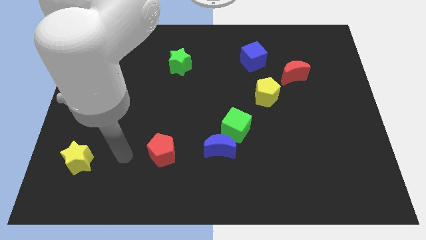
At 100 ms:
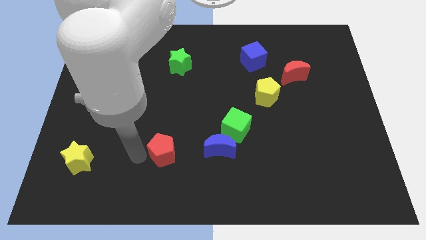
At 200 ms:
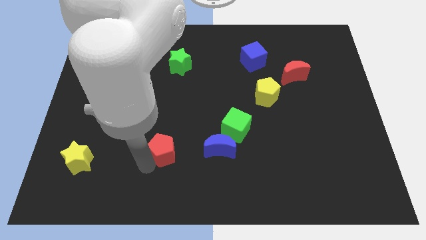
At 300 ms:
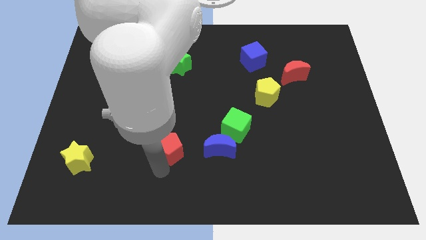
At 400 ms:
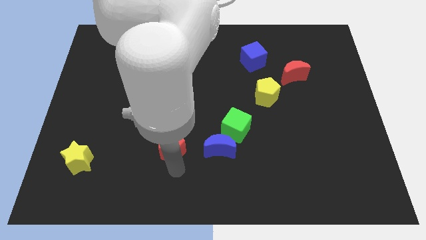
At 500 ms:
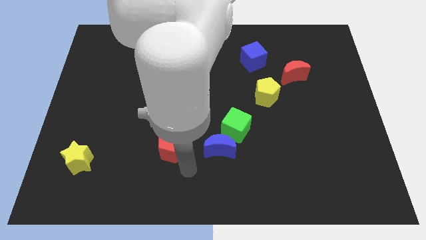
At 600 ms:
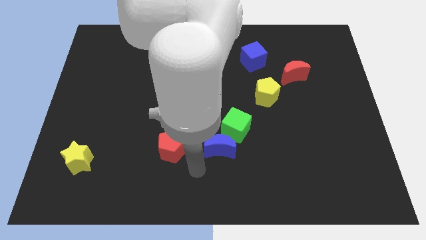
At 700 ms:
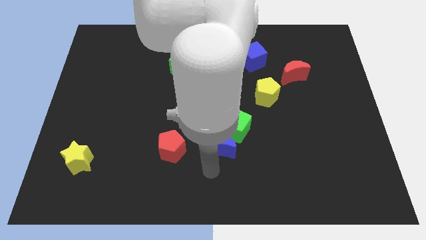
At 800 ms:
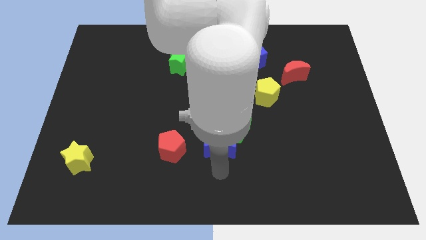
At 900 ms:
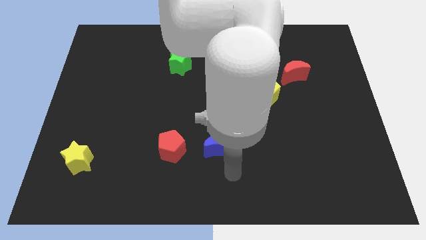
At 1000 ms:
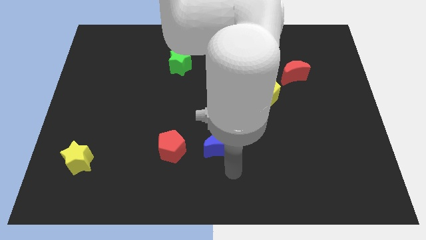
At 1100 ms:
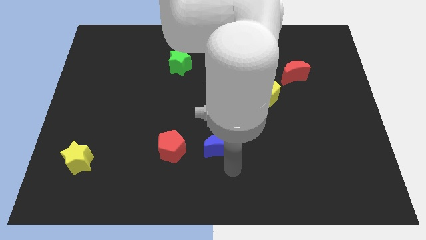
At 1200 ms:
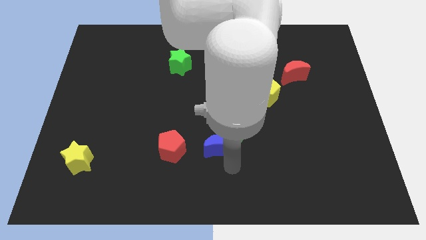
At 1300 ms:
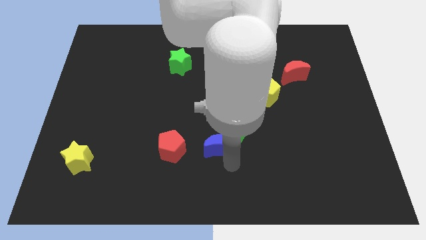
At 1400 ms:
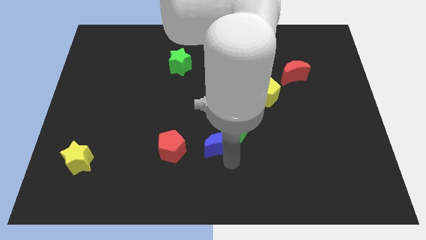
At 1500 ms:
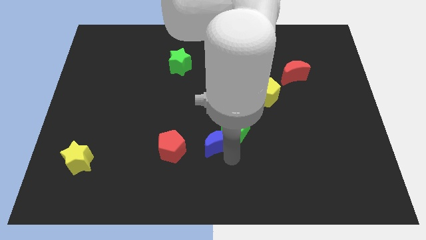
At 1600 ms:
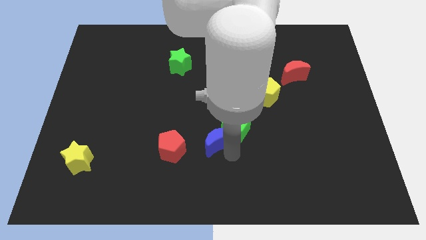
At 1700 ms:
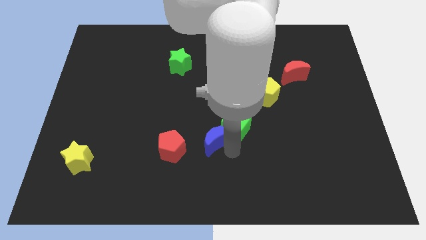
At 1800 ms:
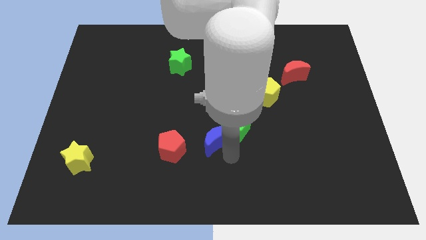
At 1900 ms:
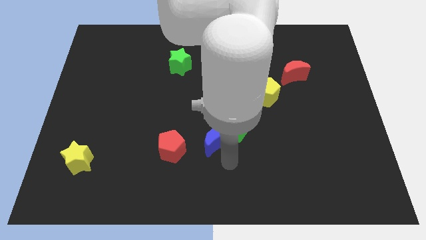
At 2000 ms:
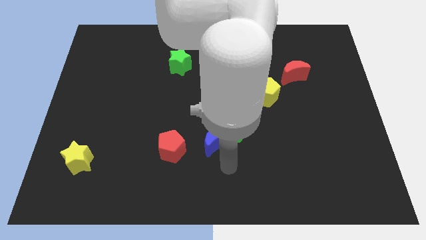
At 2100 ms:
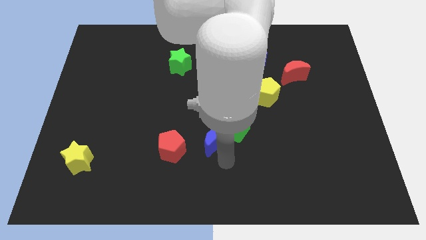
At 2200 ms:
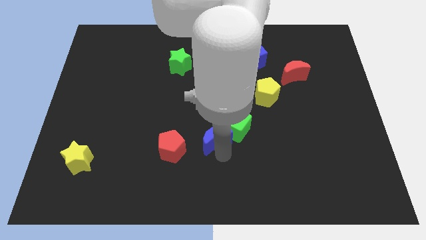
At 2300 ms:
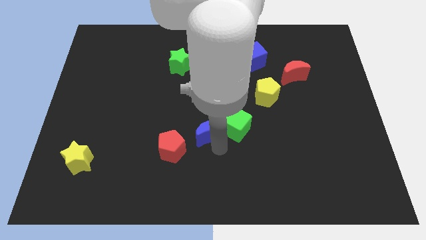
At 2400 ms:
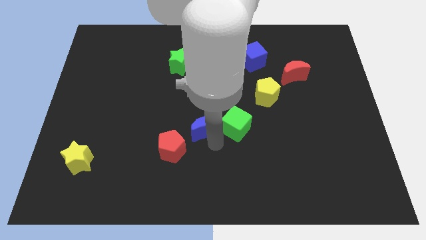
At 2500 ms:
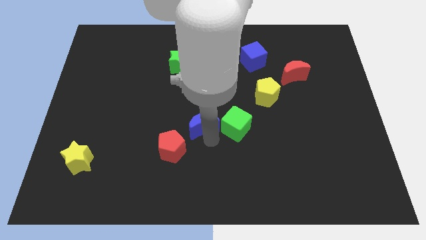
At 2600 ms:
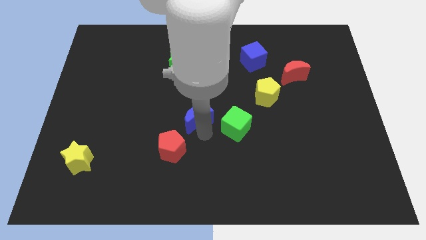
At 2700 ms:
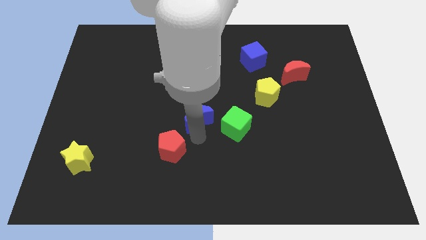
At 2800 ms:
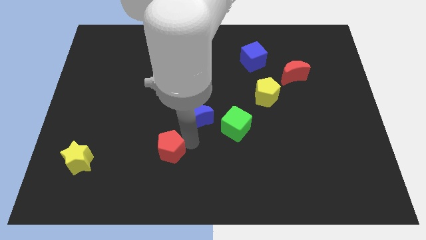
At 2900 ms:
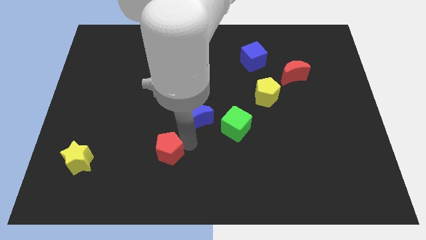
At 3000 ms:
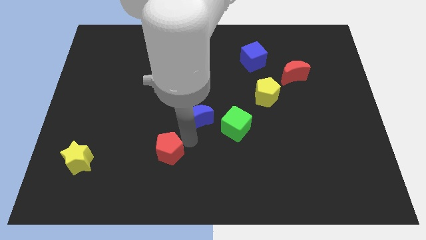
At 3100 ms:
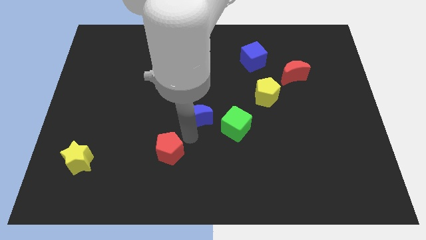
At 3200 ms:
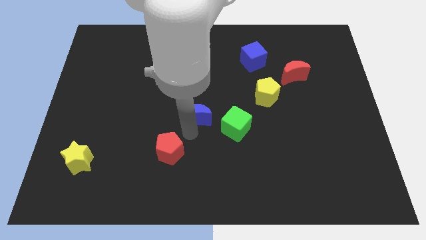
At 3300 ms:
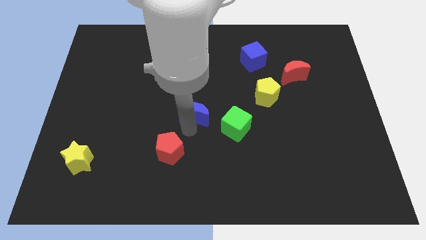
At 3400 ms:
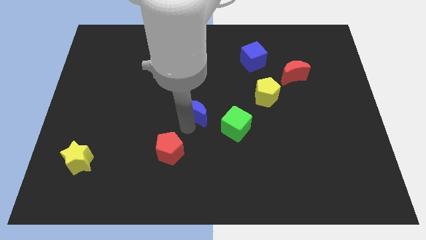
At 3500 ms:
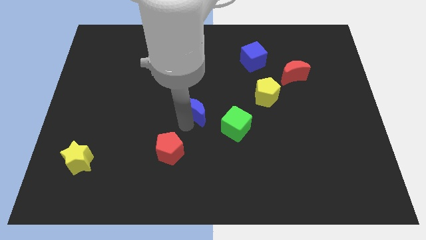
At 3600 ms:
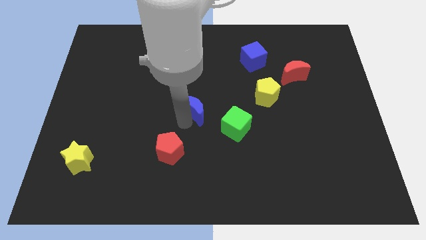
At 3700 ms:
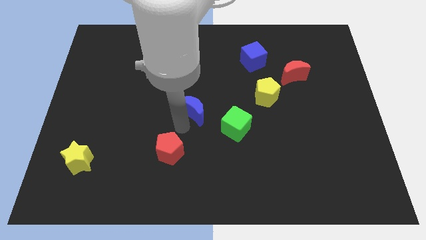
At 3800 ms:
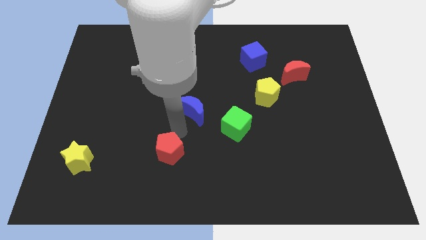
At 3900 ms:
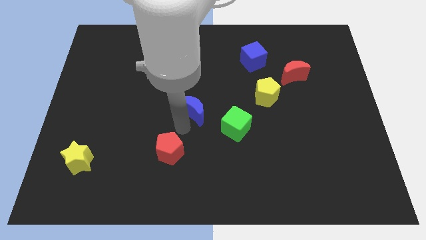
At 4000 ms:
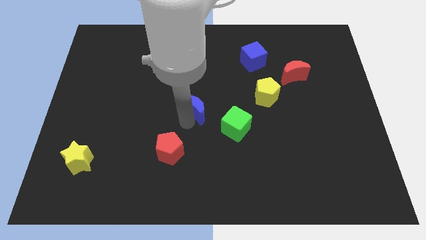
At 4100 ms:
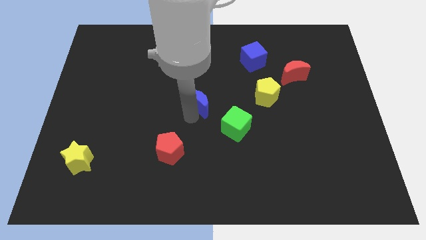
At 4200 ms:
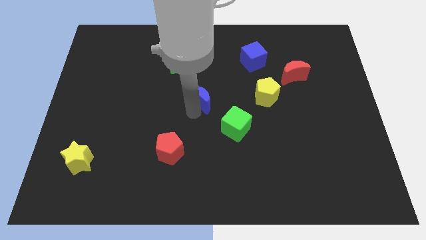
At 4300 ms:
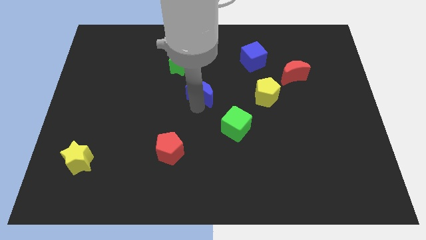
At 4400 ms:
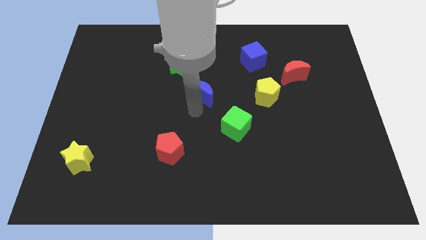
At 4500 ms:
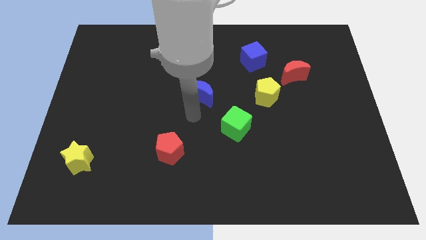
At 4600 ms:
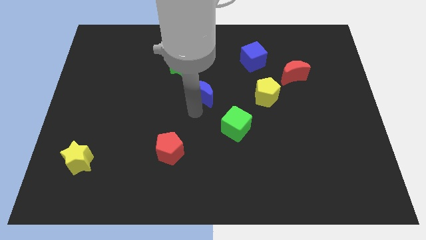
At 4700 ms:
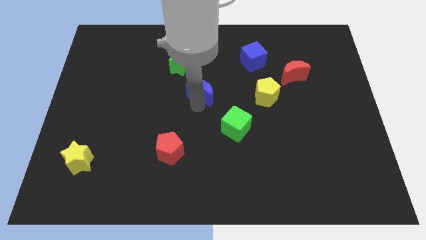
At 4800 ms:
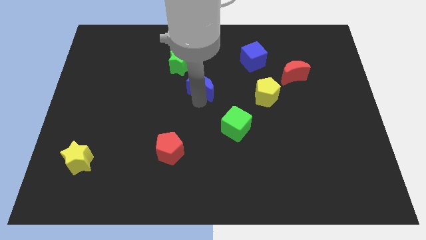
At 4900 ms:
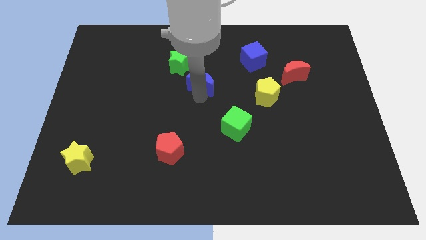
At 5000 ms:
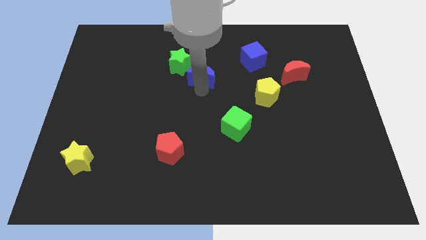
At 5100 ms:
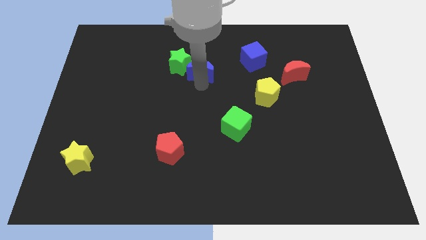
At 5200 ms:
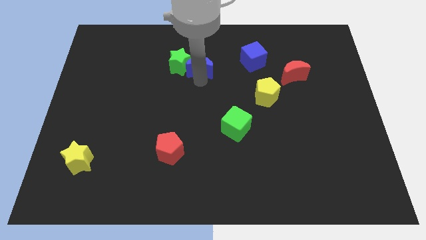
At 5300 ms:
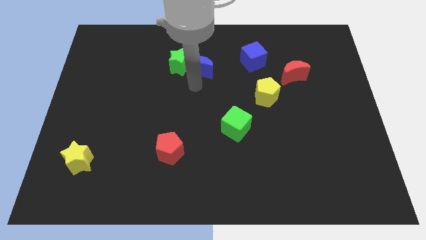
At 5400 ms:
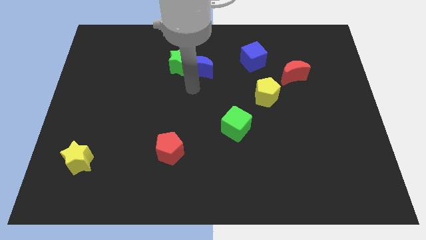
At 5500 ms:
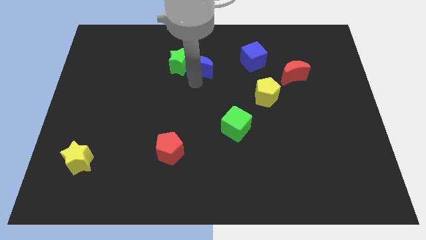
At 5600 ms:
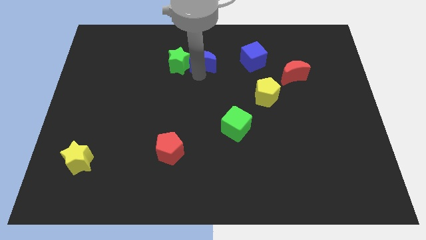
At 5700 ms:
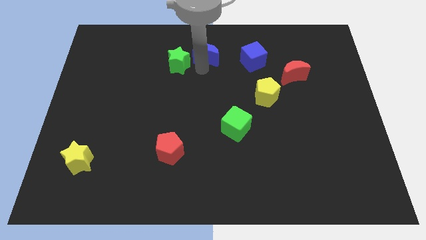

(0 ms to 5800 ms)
slide the blue moon to the top

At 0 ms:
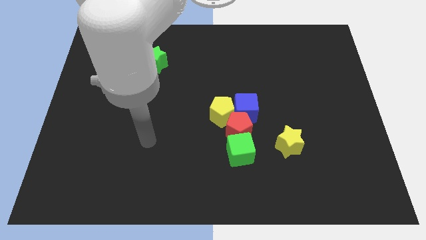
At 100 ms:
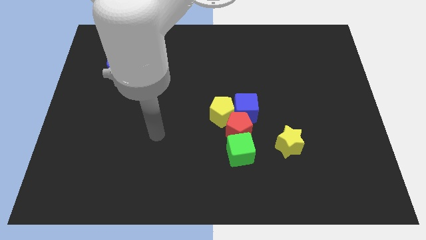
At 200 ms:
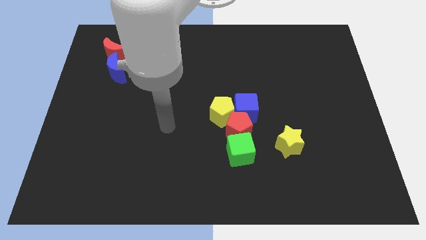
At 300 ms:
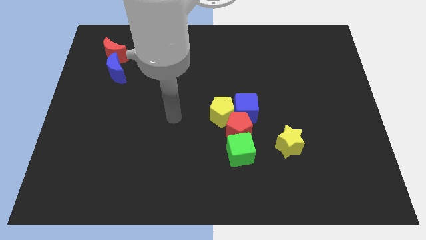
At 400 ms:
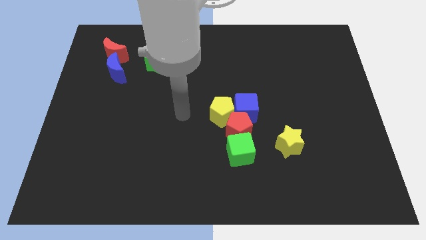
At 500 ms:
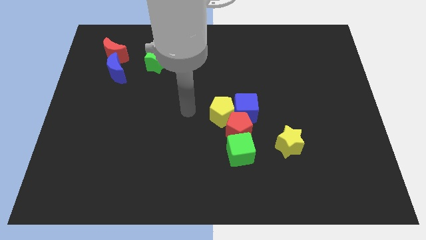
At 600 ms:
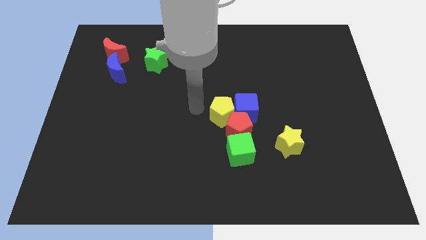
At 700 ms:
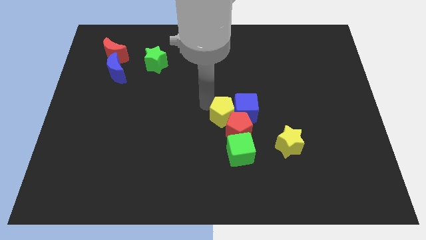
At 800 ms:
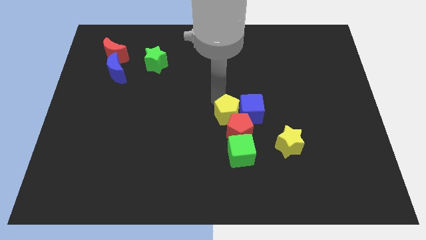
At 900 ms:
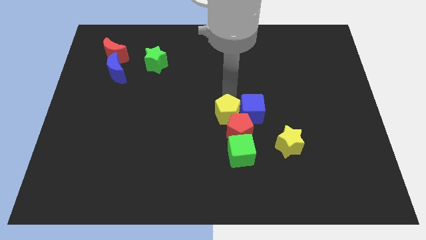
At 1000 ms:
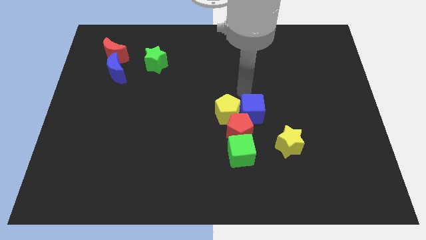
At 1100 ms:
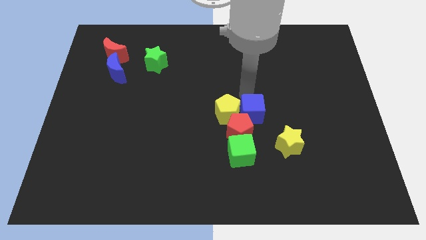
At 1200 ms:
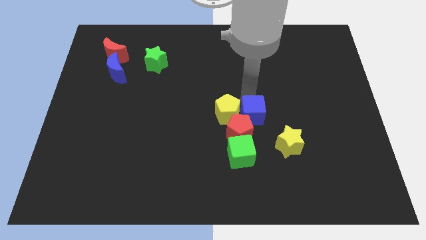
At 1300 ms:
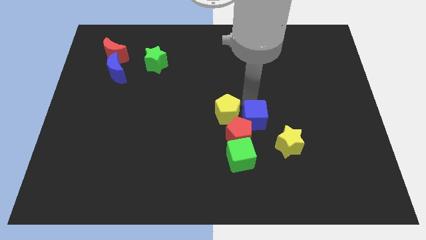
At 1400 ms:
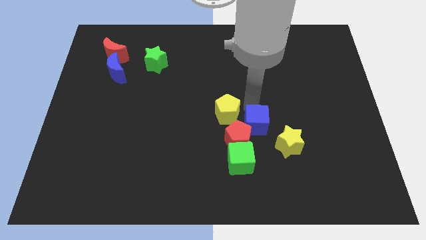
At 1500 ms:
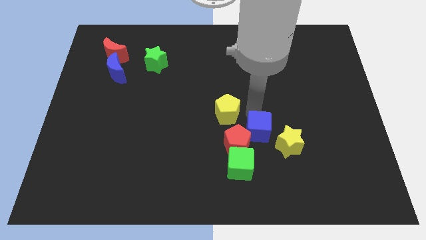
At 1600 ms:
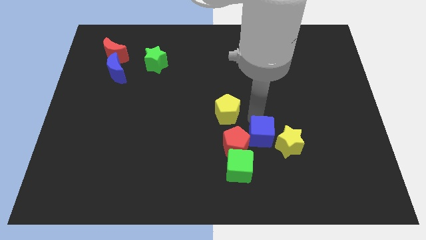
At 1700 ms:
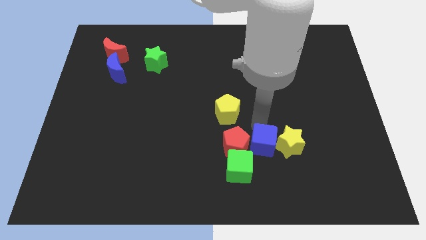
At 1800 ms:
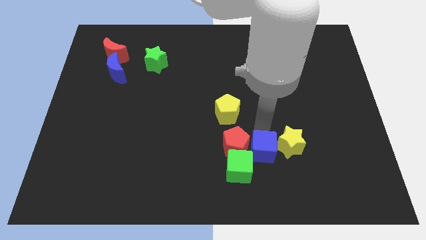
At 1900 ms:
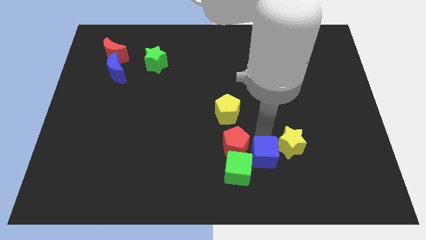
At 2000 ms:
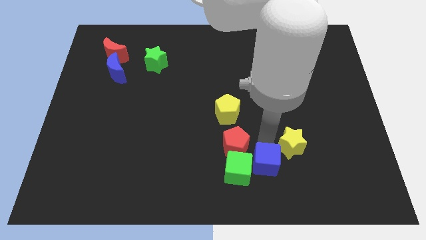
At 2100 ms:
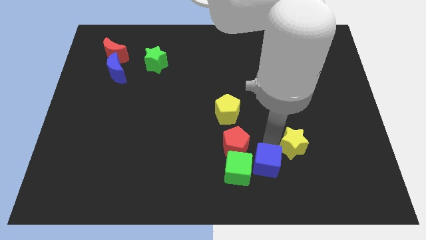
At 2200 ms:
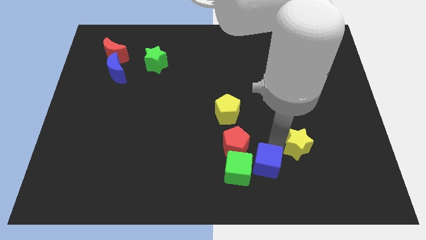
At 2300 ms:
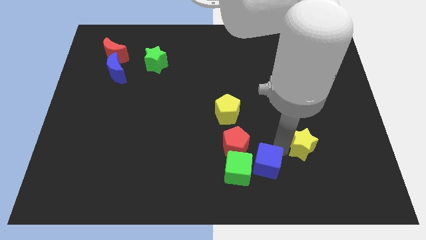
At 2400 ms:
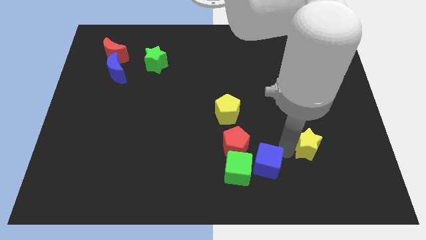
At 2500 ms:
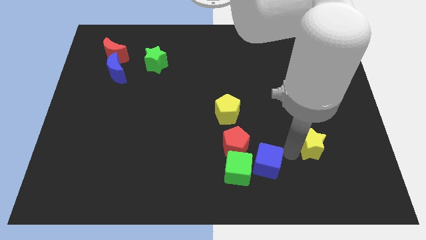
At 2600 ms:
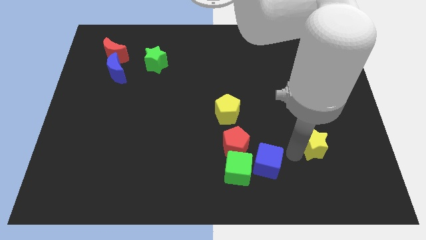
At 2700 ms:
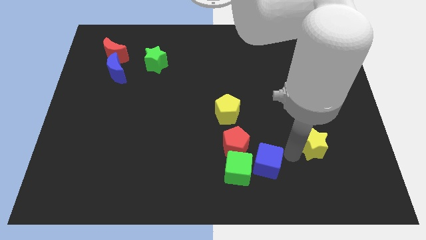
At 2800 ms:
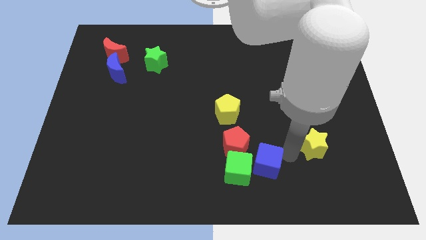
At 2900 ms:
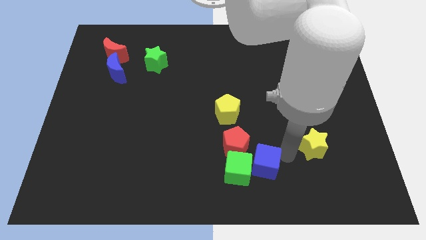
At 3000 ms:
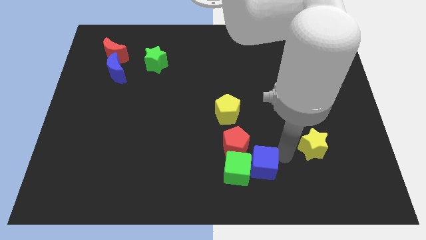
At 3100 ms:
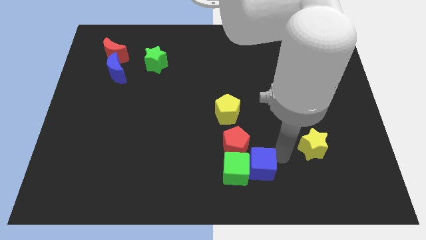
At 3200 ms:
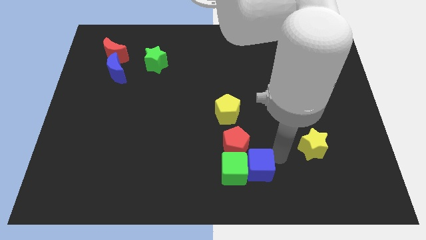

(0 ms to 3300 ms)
put the blue cube to the bottom
